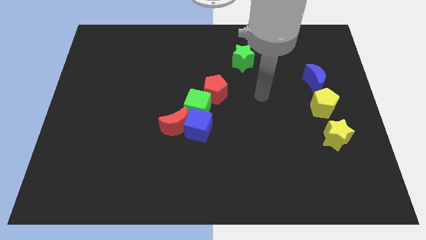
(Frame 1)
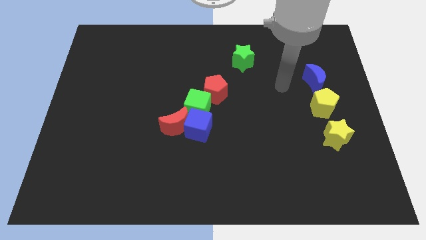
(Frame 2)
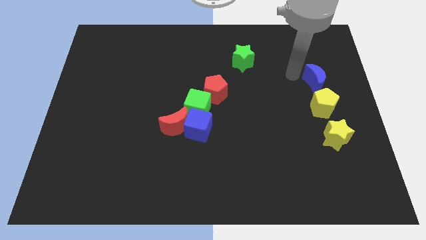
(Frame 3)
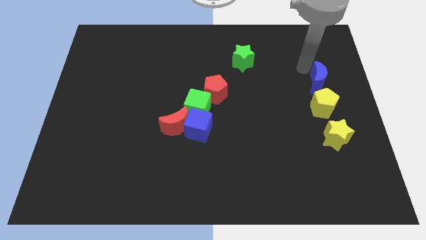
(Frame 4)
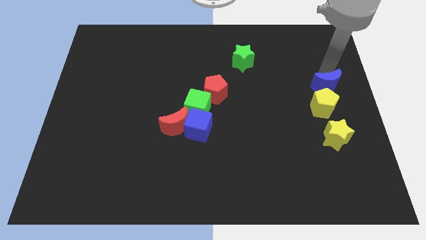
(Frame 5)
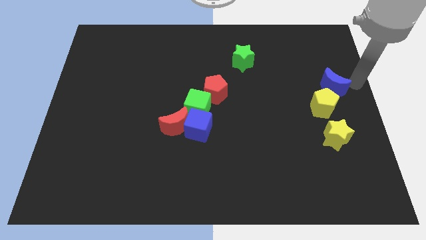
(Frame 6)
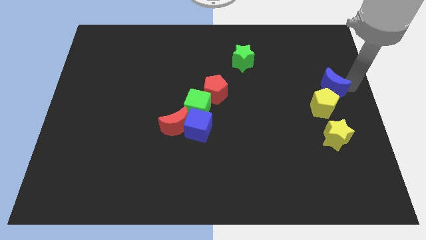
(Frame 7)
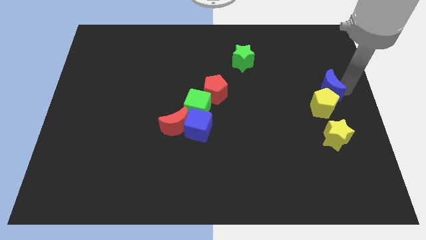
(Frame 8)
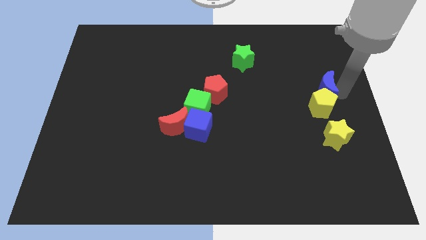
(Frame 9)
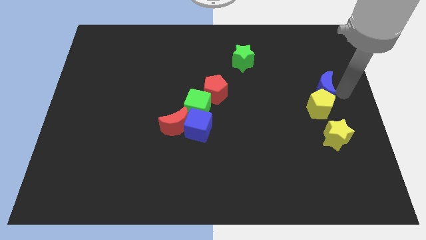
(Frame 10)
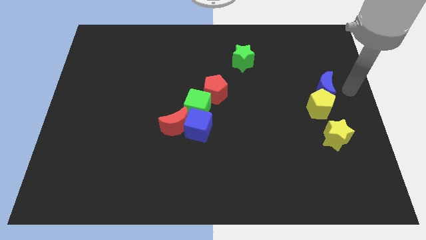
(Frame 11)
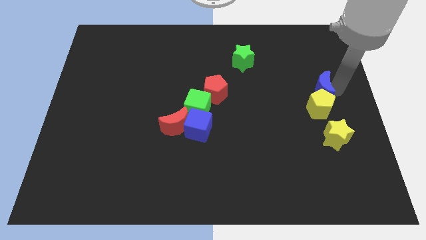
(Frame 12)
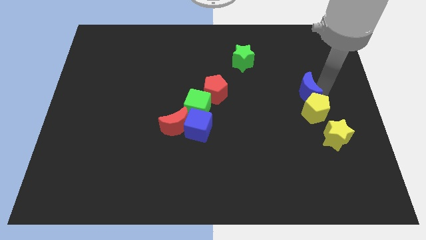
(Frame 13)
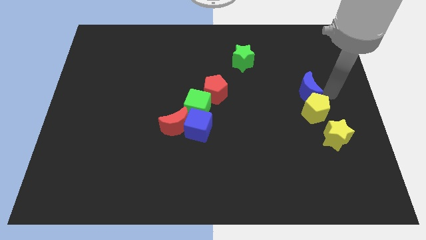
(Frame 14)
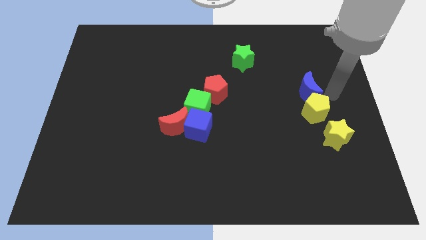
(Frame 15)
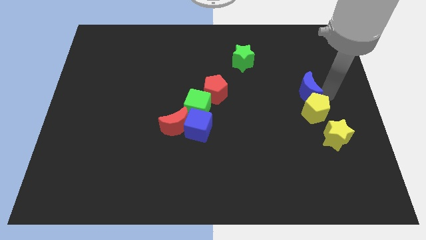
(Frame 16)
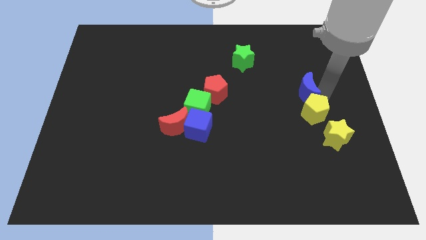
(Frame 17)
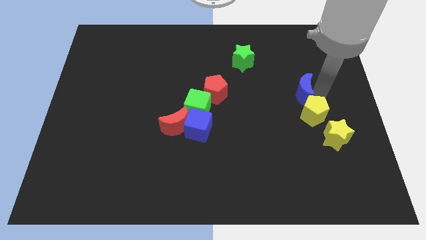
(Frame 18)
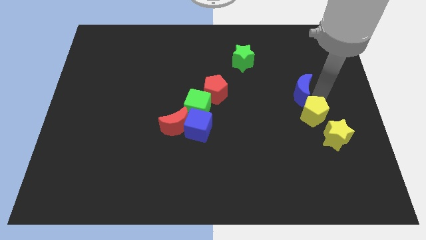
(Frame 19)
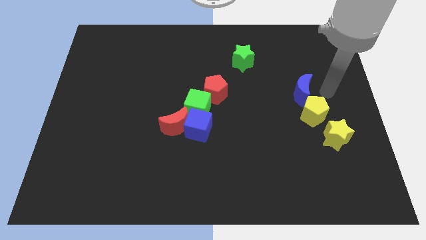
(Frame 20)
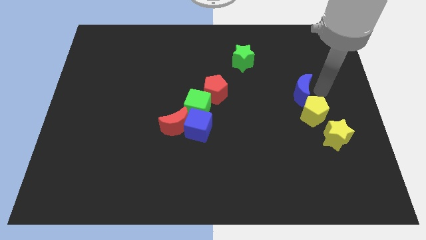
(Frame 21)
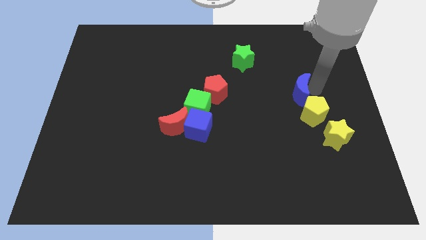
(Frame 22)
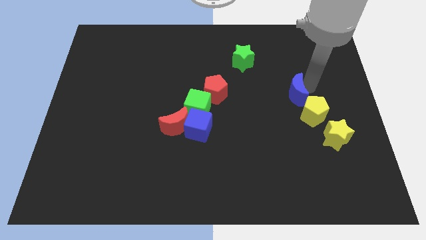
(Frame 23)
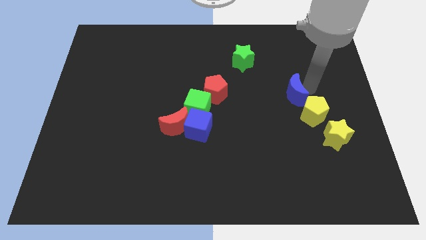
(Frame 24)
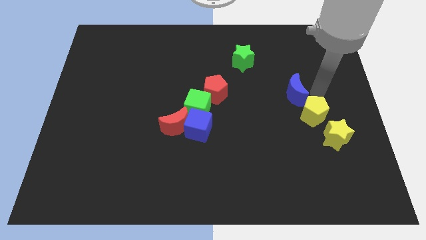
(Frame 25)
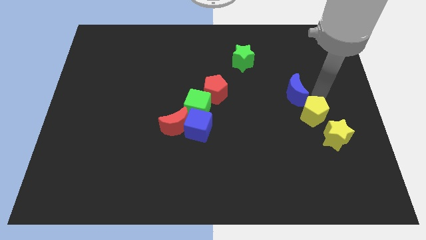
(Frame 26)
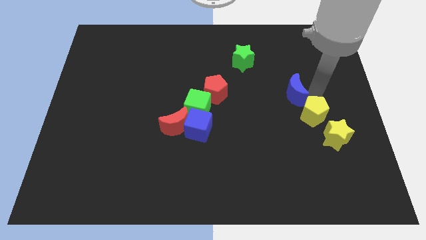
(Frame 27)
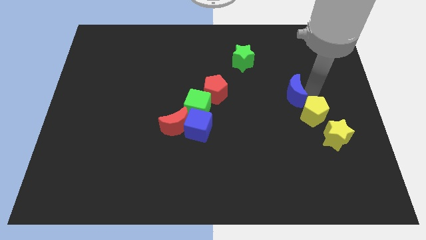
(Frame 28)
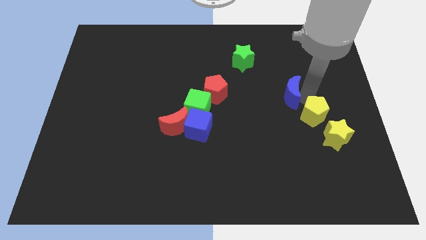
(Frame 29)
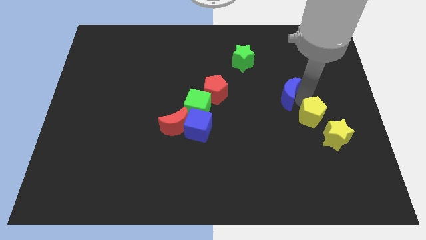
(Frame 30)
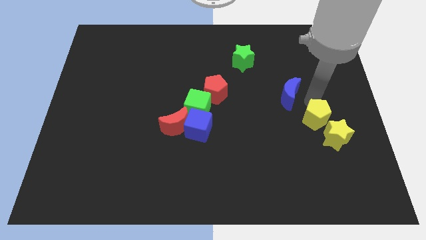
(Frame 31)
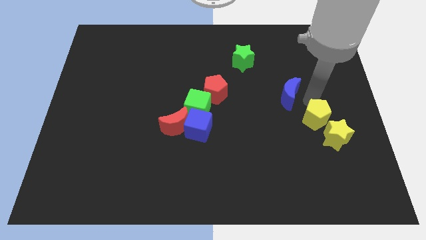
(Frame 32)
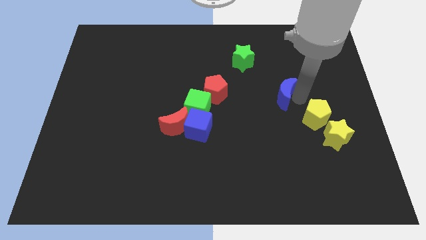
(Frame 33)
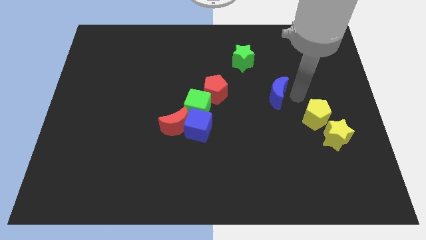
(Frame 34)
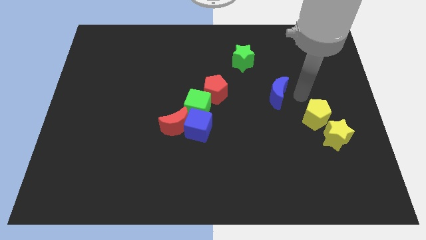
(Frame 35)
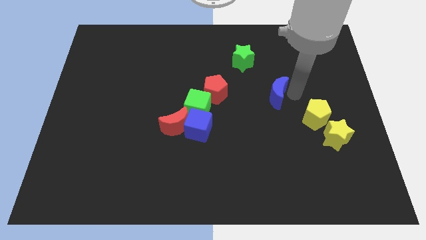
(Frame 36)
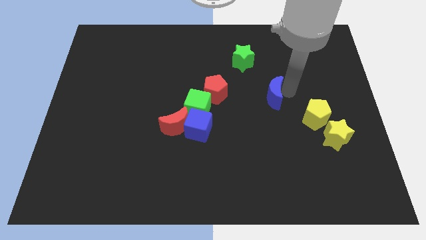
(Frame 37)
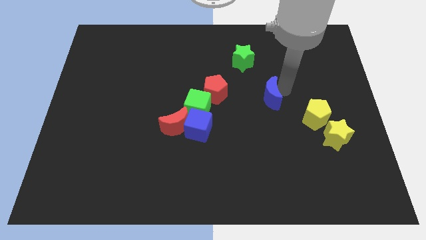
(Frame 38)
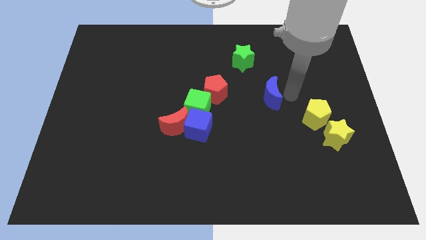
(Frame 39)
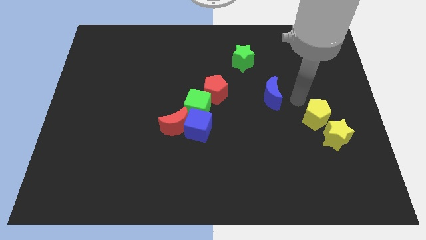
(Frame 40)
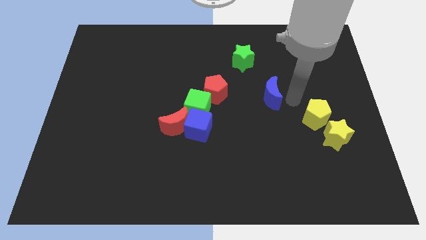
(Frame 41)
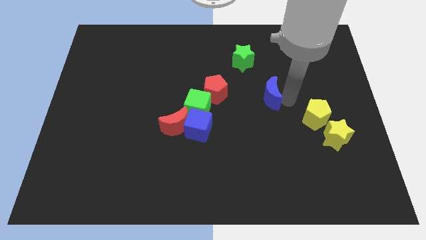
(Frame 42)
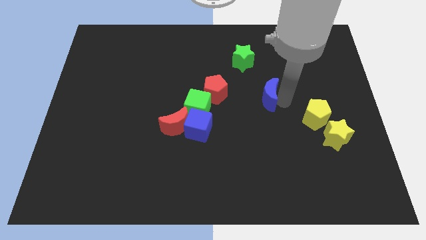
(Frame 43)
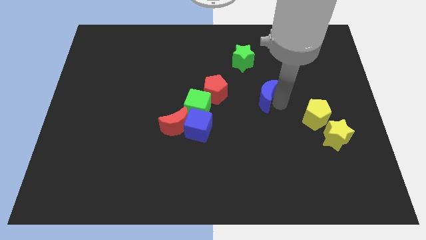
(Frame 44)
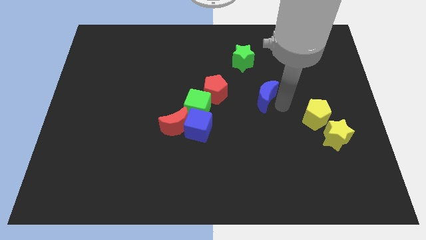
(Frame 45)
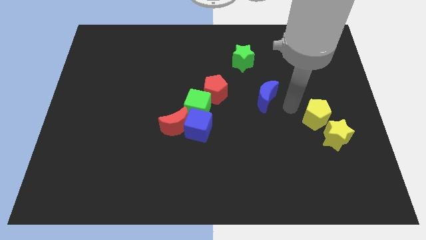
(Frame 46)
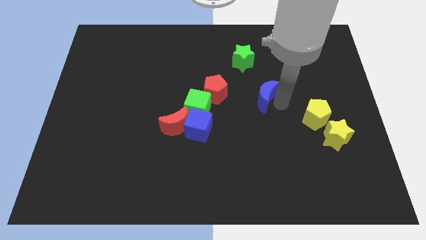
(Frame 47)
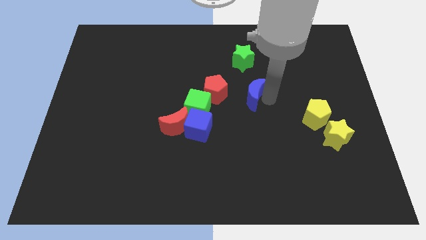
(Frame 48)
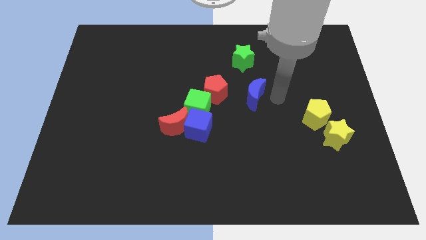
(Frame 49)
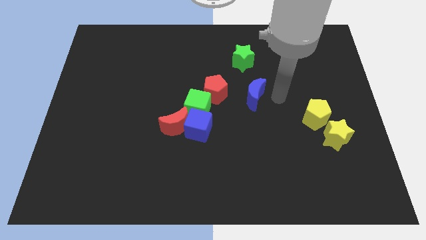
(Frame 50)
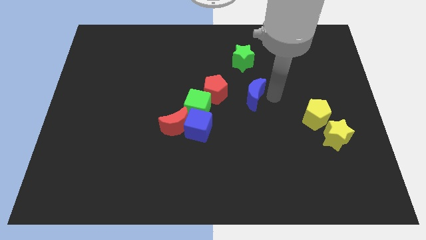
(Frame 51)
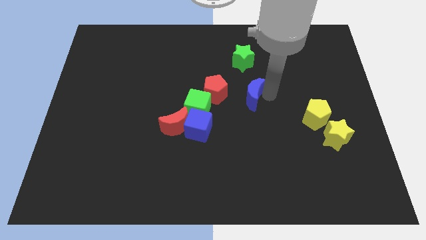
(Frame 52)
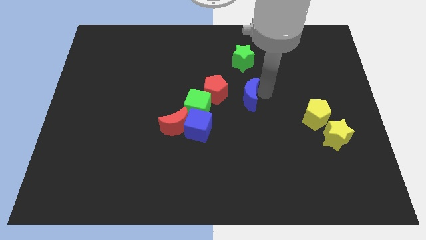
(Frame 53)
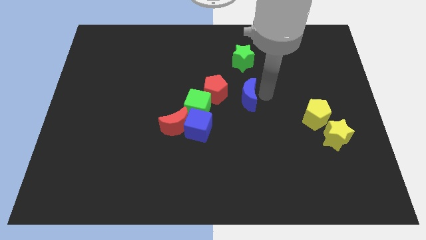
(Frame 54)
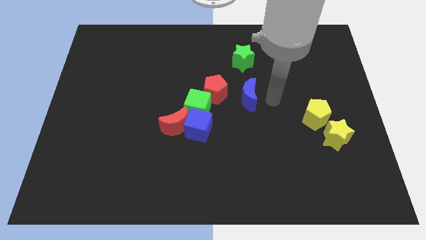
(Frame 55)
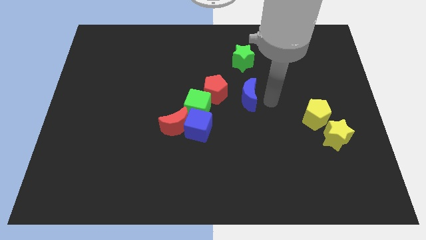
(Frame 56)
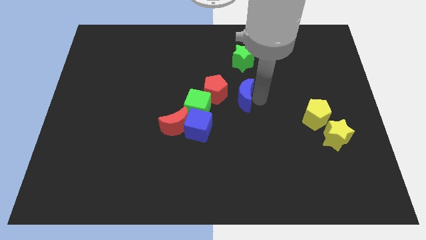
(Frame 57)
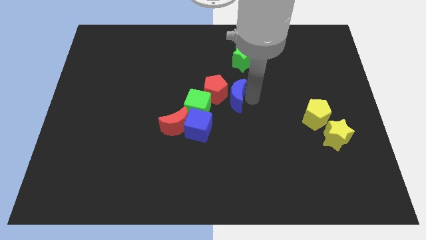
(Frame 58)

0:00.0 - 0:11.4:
put the blue moon to the red pentagon

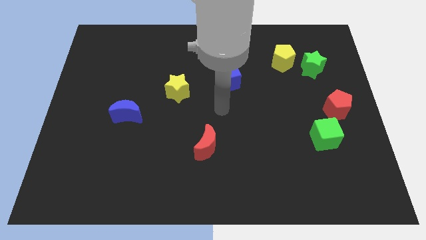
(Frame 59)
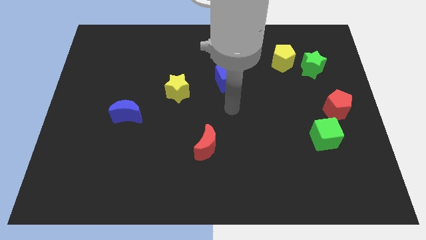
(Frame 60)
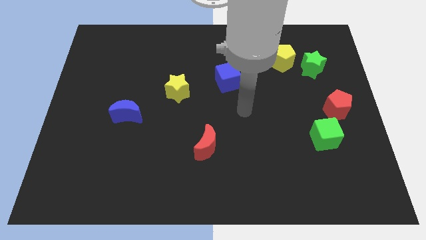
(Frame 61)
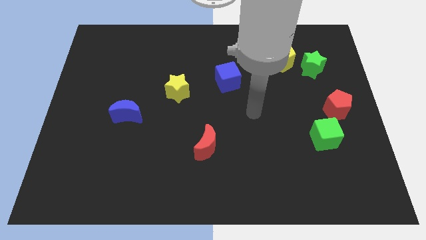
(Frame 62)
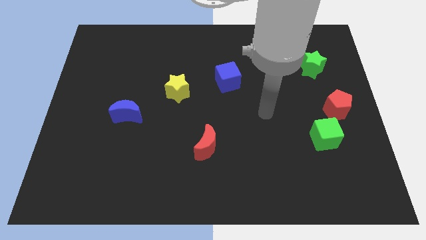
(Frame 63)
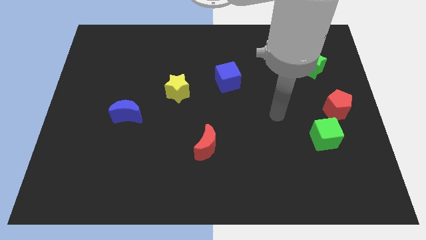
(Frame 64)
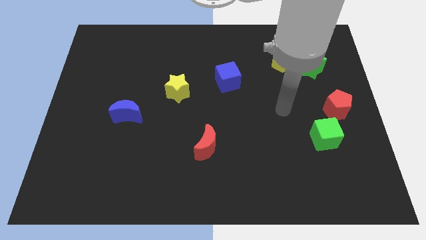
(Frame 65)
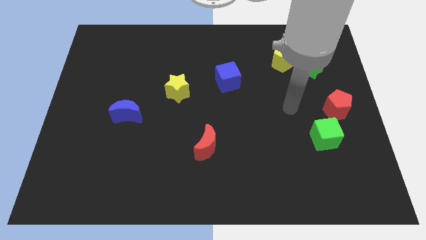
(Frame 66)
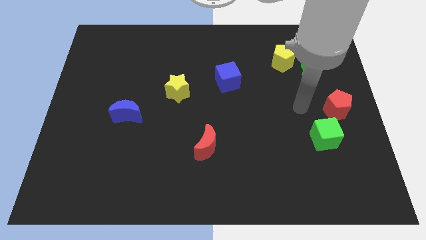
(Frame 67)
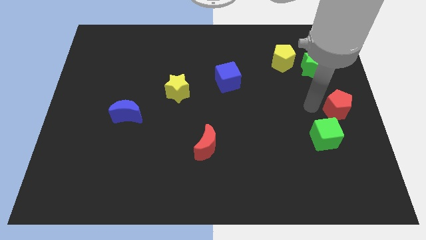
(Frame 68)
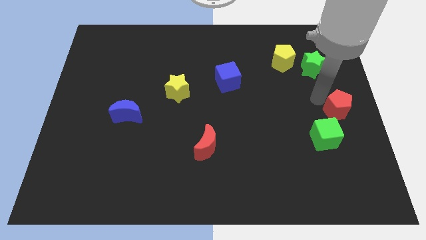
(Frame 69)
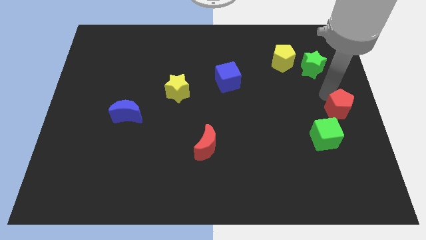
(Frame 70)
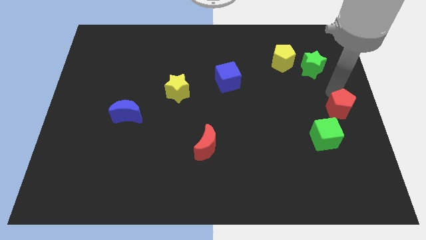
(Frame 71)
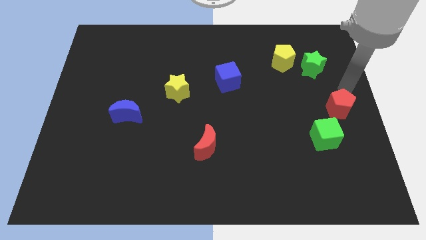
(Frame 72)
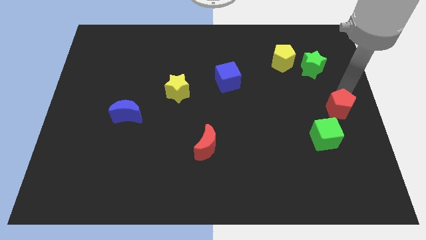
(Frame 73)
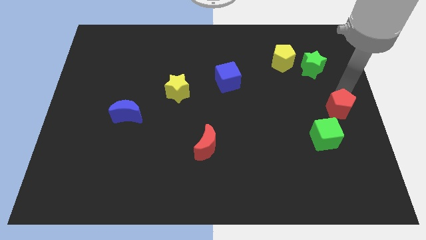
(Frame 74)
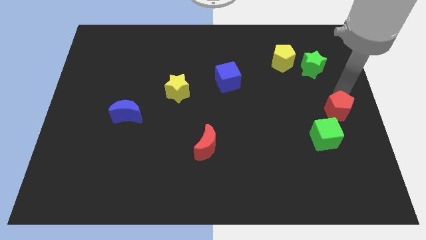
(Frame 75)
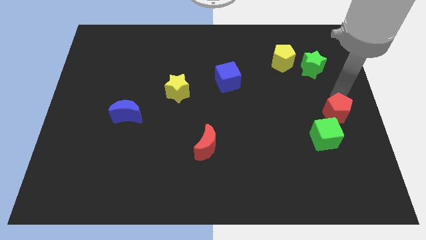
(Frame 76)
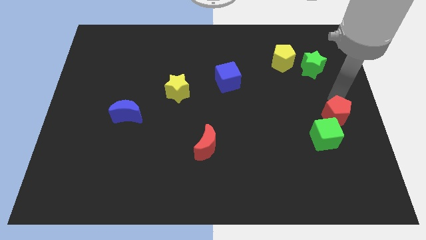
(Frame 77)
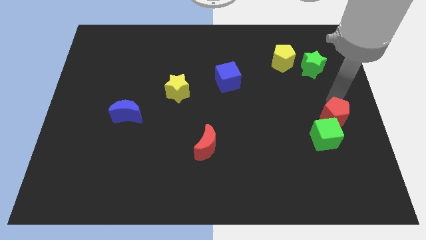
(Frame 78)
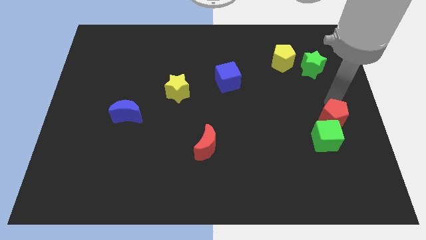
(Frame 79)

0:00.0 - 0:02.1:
move the red pentagon close to the green cube
